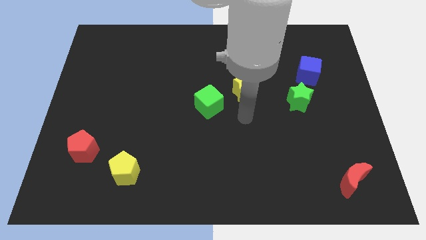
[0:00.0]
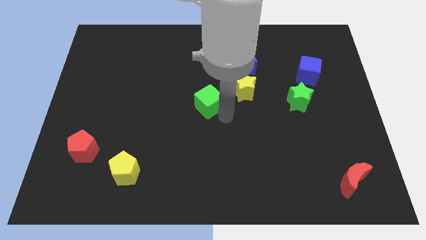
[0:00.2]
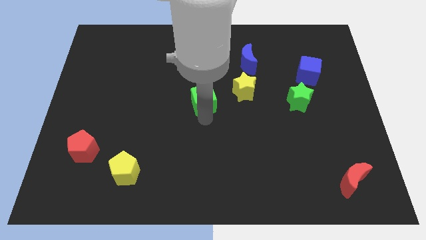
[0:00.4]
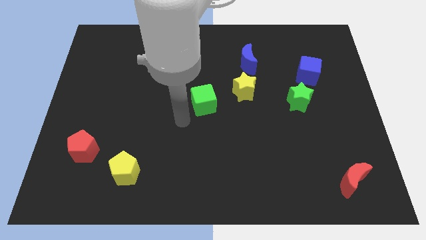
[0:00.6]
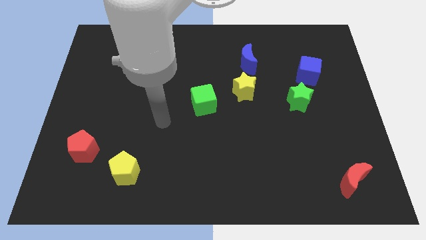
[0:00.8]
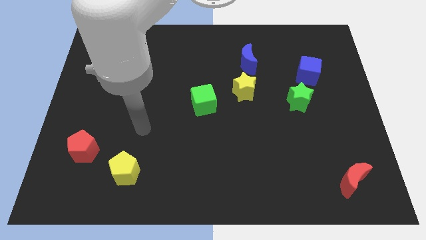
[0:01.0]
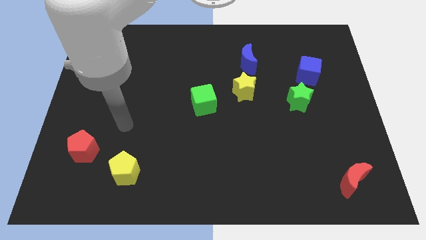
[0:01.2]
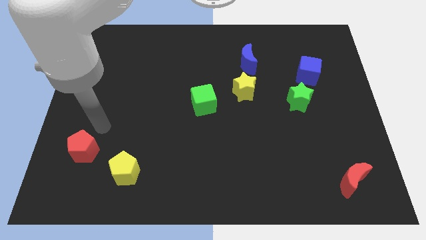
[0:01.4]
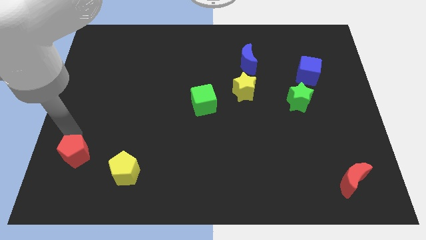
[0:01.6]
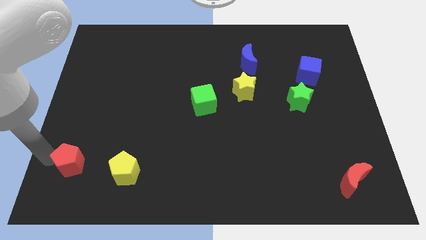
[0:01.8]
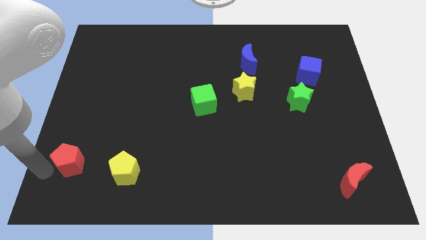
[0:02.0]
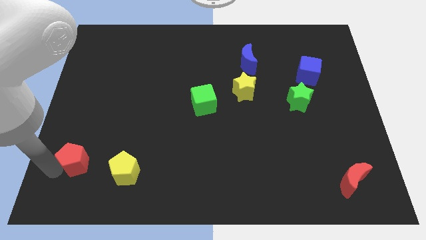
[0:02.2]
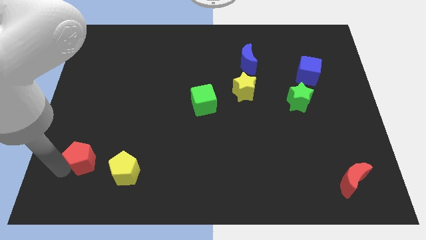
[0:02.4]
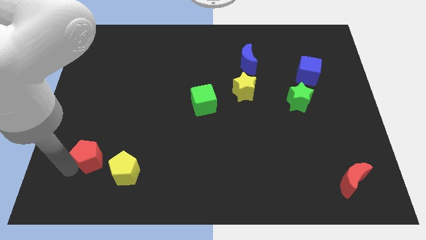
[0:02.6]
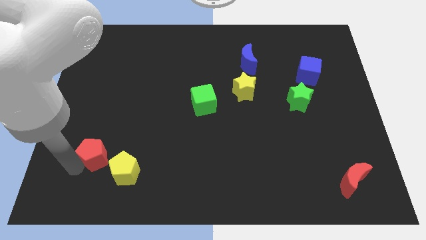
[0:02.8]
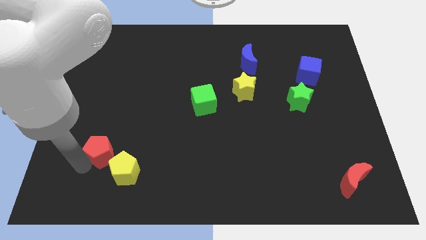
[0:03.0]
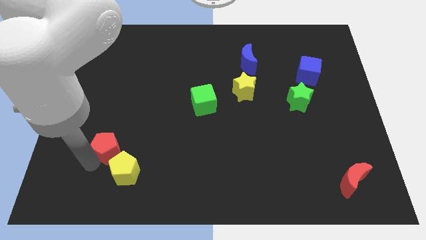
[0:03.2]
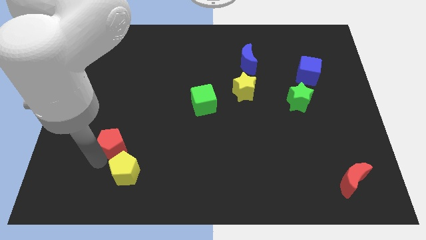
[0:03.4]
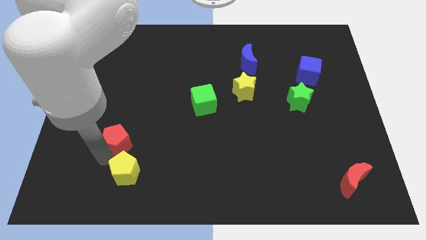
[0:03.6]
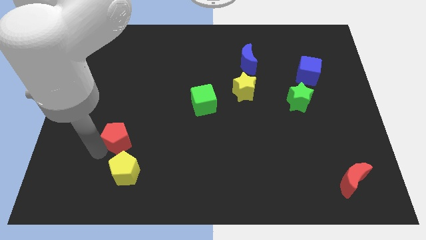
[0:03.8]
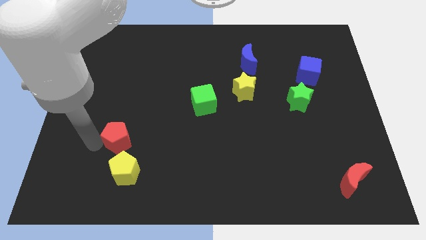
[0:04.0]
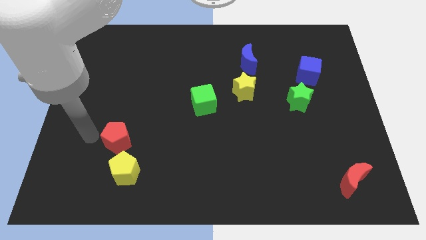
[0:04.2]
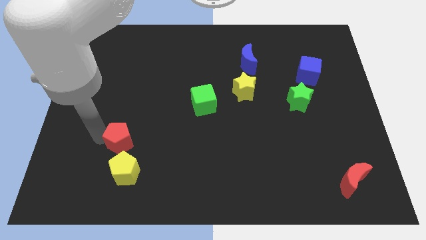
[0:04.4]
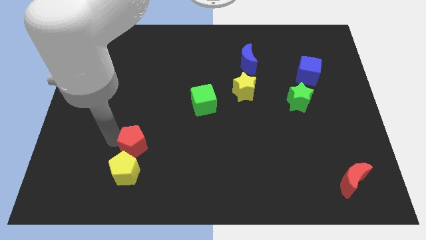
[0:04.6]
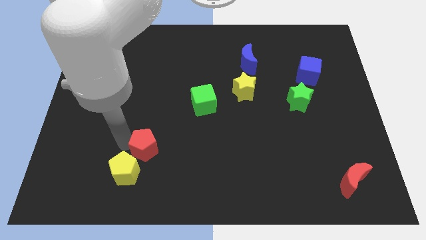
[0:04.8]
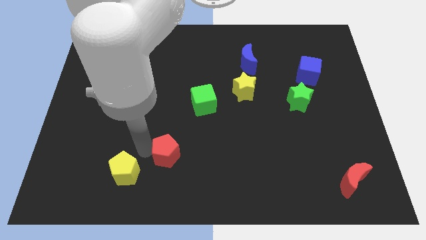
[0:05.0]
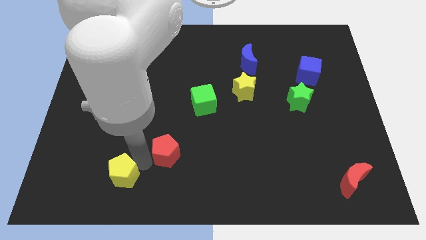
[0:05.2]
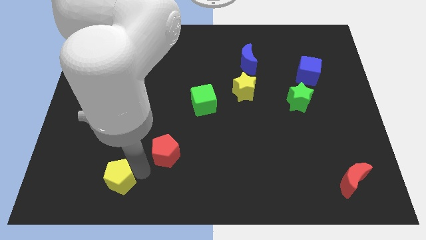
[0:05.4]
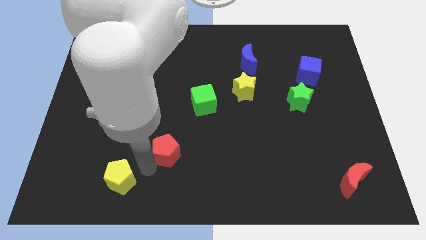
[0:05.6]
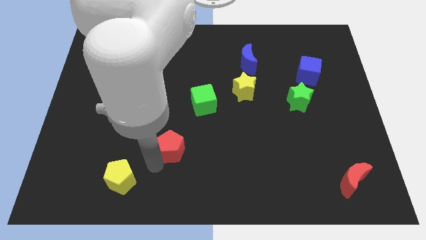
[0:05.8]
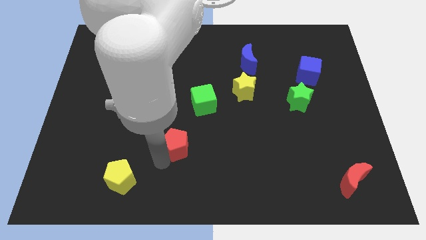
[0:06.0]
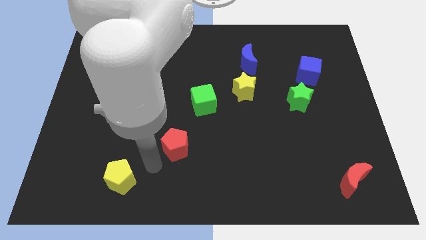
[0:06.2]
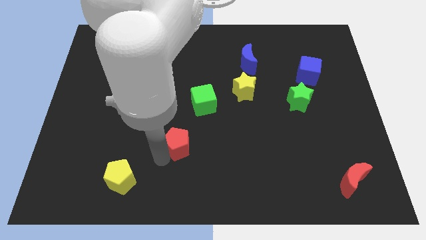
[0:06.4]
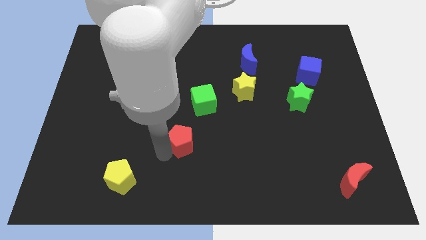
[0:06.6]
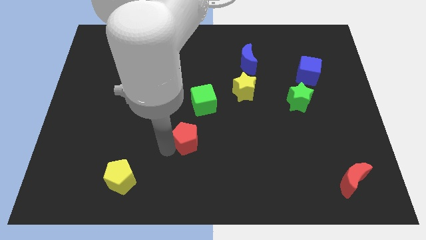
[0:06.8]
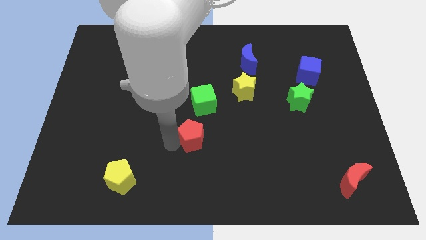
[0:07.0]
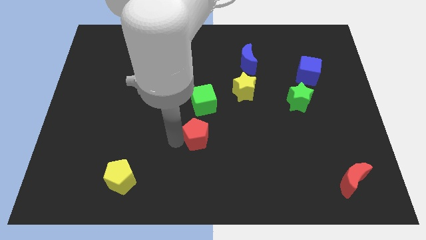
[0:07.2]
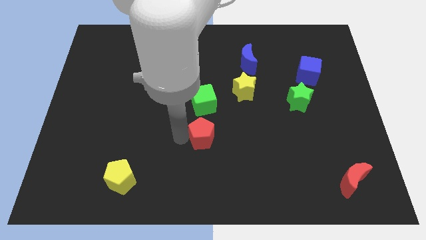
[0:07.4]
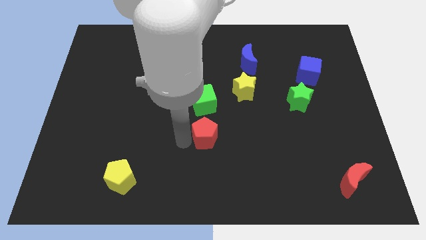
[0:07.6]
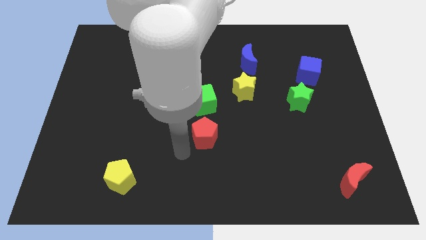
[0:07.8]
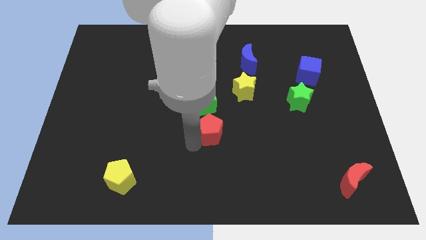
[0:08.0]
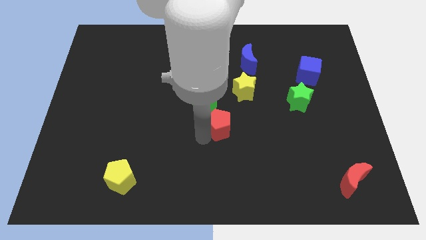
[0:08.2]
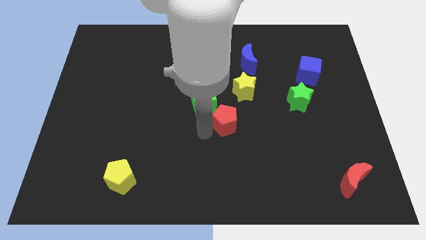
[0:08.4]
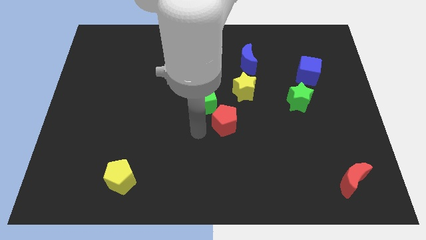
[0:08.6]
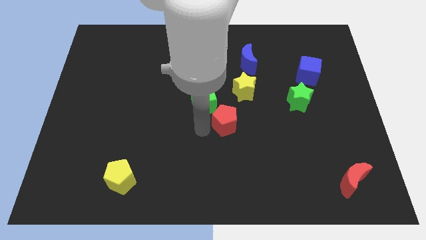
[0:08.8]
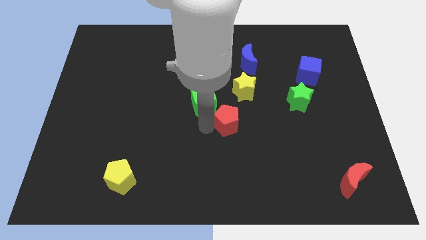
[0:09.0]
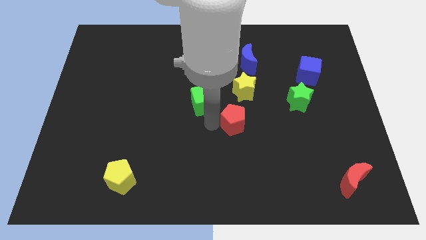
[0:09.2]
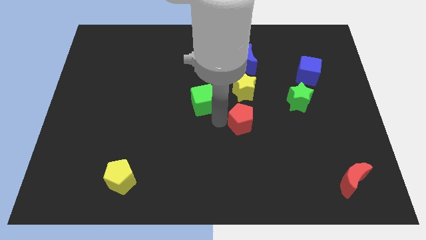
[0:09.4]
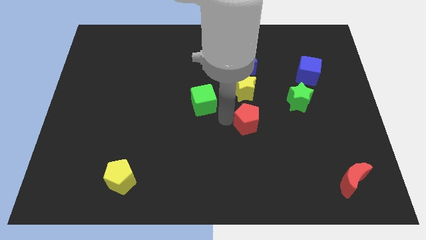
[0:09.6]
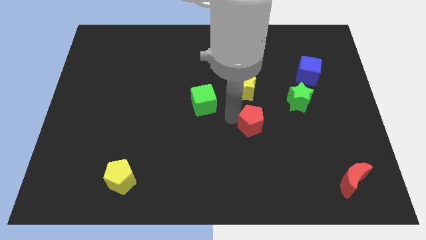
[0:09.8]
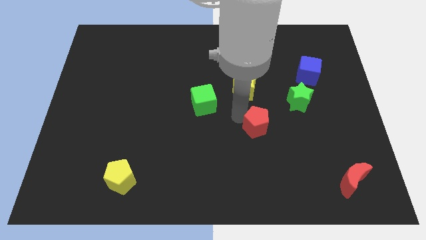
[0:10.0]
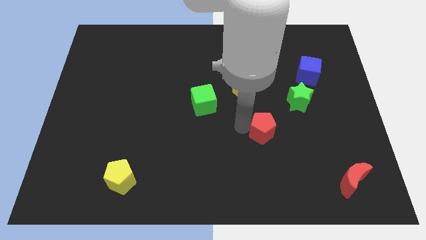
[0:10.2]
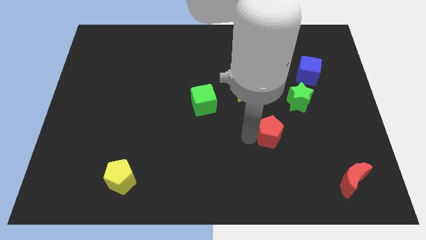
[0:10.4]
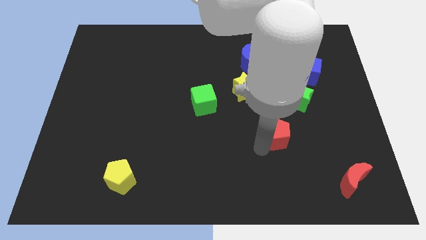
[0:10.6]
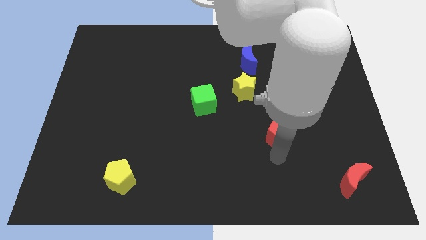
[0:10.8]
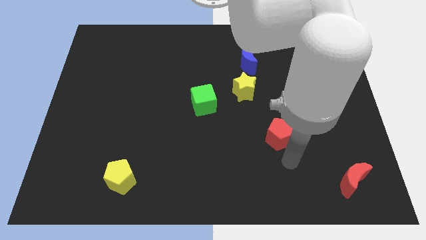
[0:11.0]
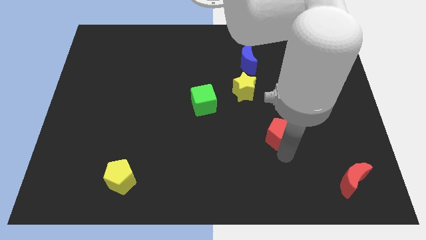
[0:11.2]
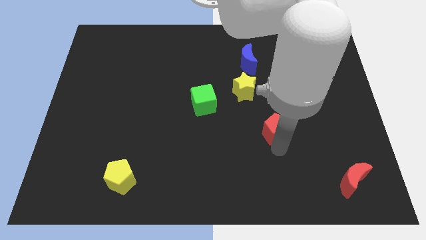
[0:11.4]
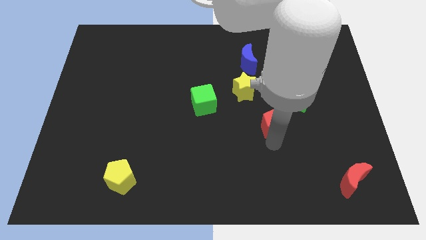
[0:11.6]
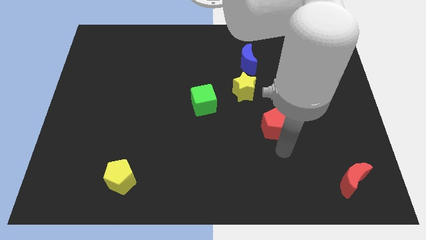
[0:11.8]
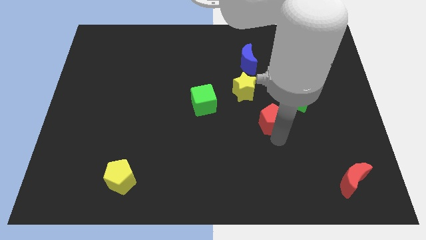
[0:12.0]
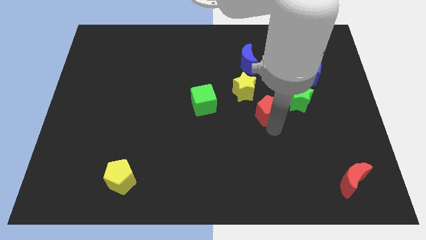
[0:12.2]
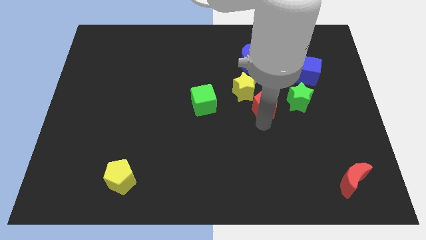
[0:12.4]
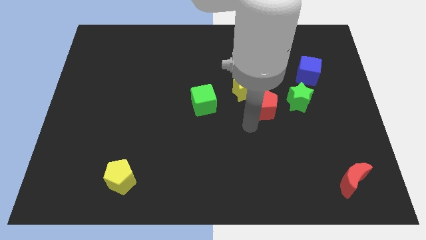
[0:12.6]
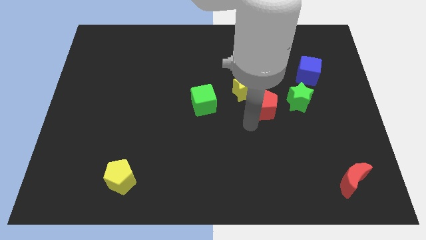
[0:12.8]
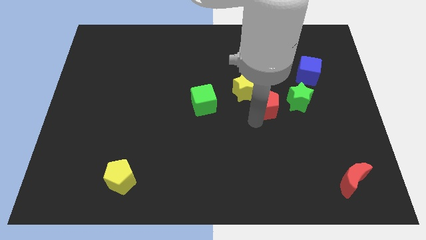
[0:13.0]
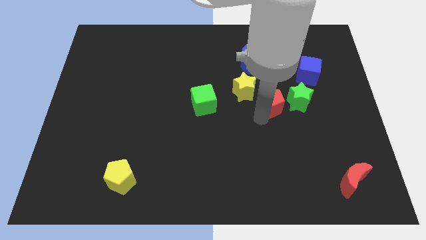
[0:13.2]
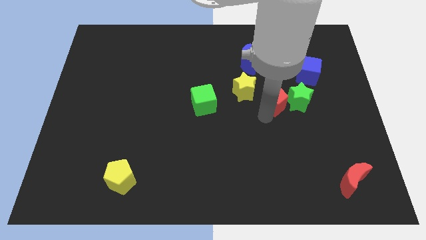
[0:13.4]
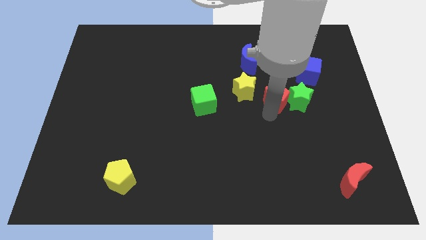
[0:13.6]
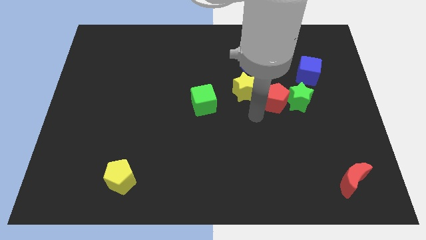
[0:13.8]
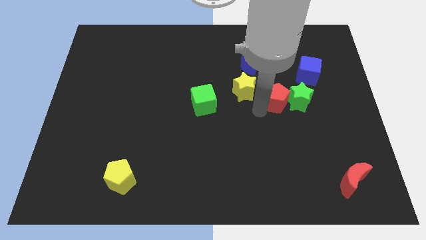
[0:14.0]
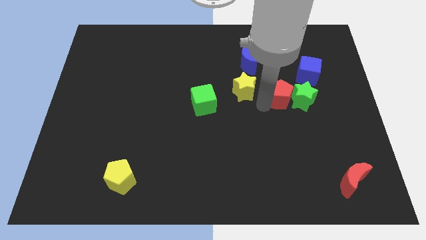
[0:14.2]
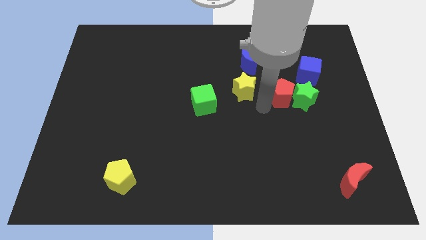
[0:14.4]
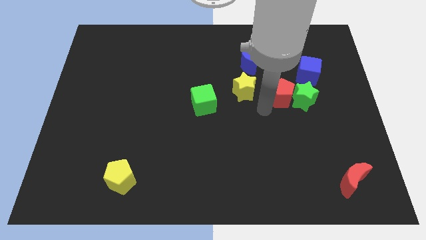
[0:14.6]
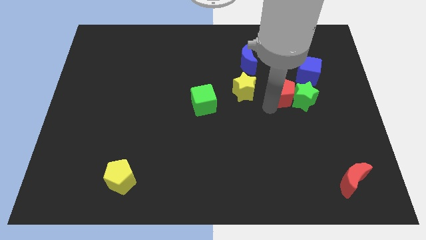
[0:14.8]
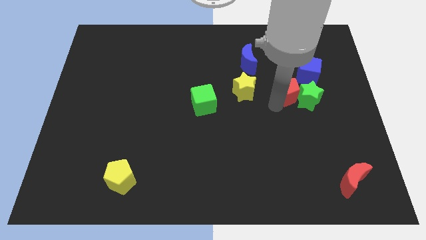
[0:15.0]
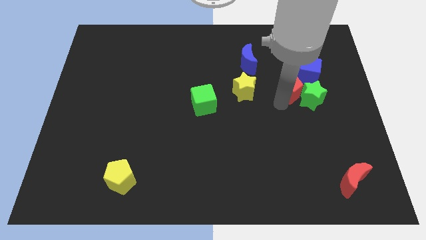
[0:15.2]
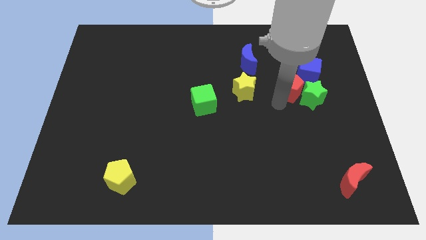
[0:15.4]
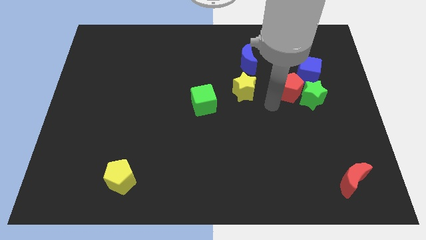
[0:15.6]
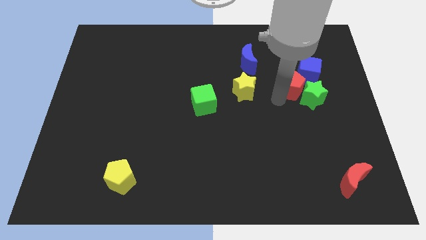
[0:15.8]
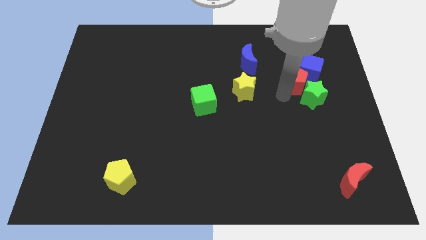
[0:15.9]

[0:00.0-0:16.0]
move the red pentagon towards the blue cube
